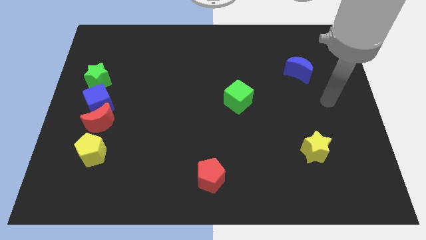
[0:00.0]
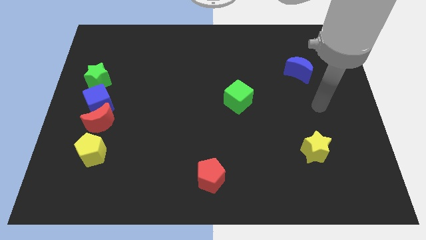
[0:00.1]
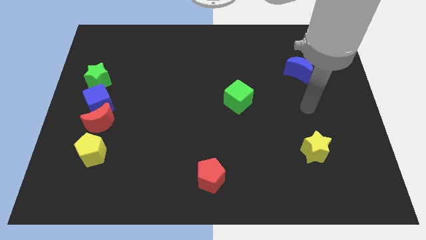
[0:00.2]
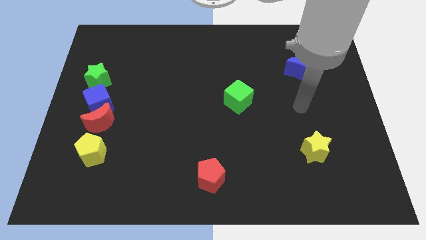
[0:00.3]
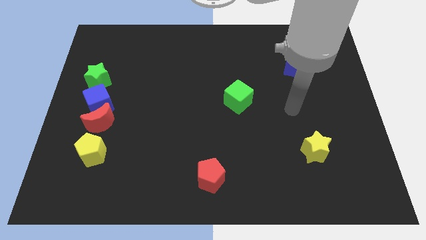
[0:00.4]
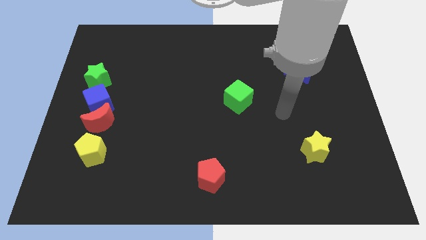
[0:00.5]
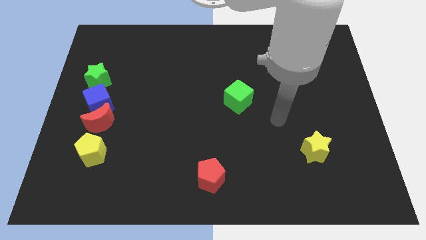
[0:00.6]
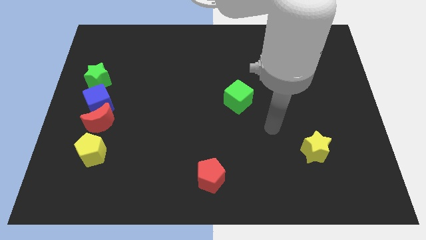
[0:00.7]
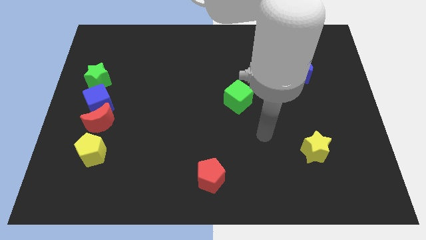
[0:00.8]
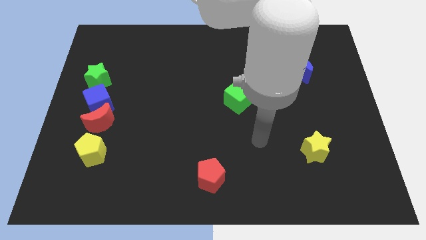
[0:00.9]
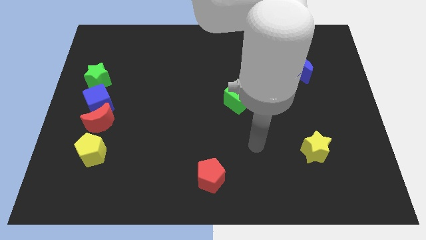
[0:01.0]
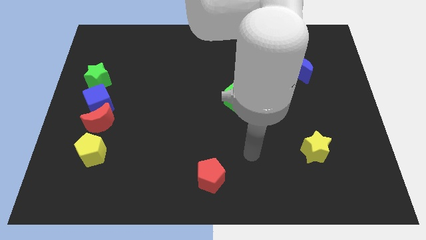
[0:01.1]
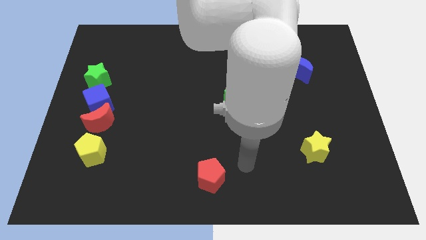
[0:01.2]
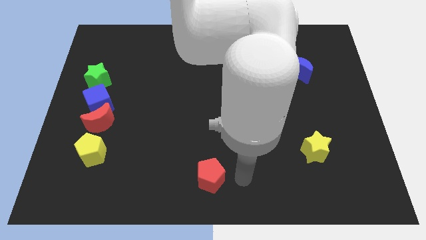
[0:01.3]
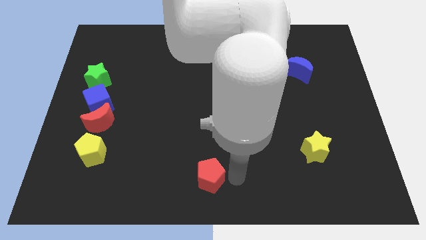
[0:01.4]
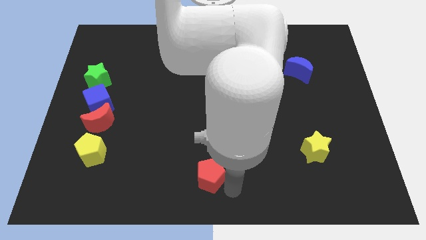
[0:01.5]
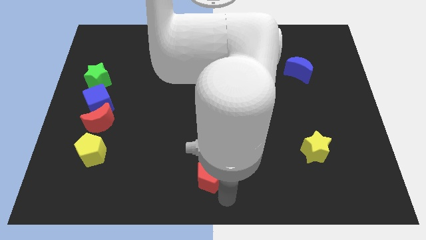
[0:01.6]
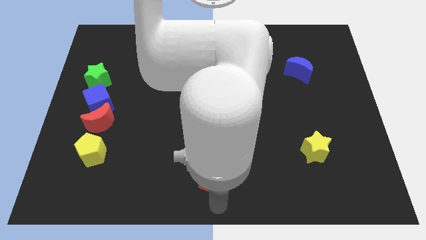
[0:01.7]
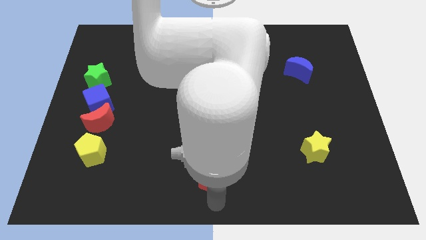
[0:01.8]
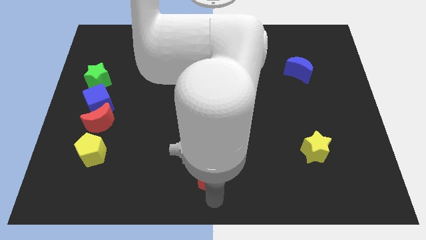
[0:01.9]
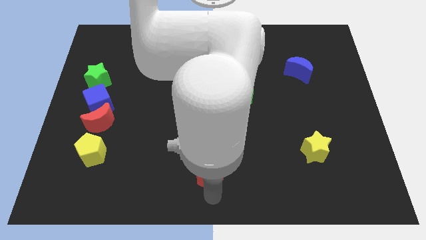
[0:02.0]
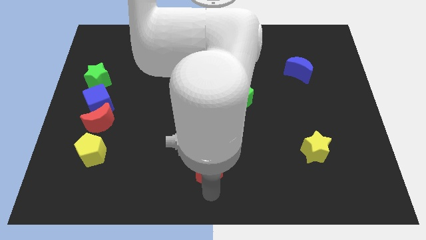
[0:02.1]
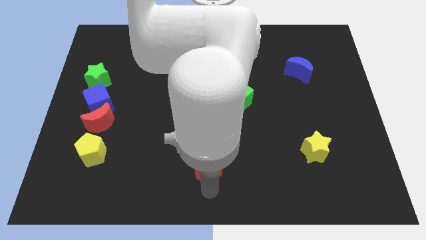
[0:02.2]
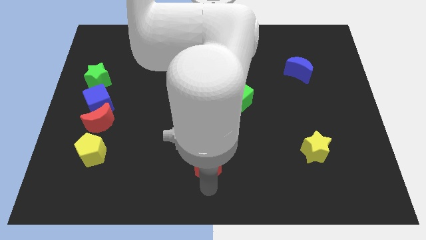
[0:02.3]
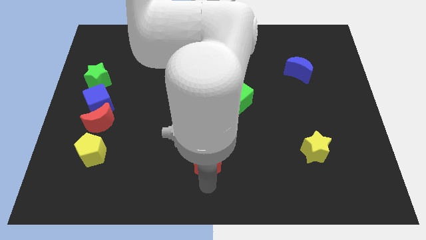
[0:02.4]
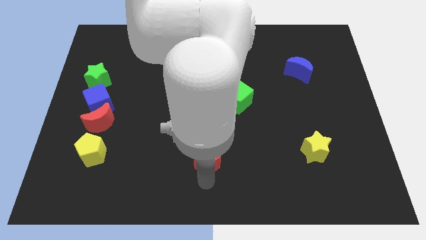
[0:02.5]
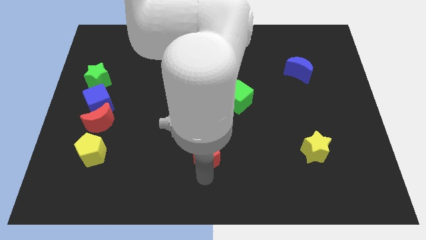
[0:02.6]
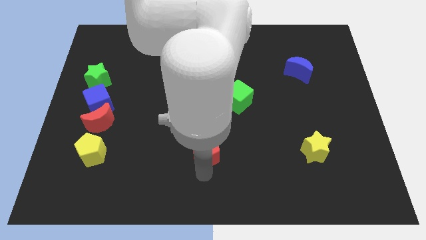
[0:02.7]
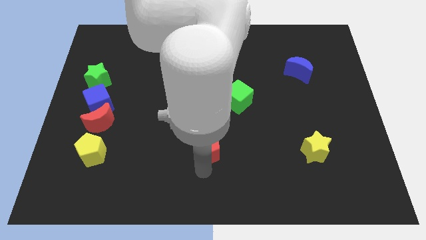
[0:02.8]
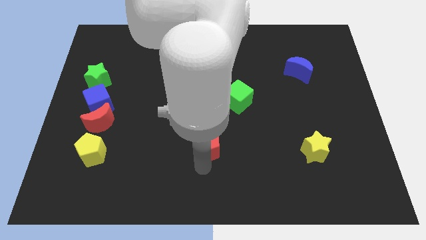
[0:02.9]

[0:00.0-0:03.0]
slide the red pentagon upwards somewhat

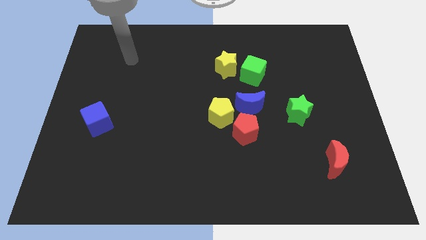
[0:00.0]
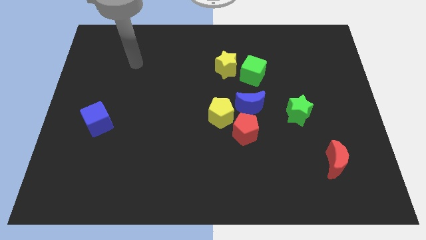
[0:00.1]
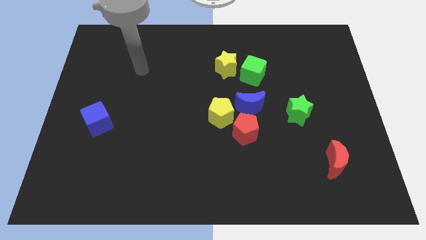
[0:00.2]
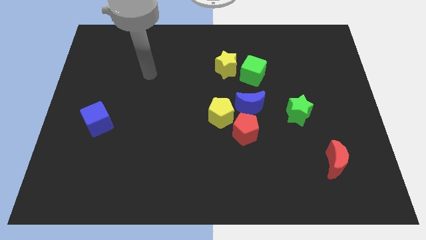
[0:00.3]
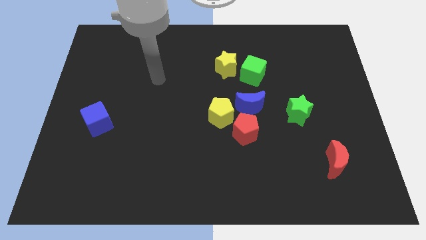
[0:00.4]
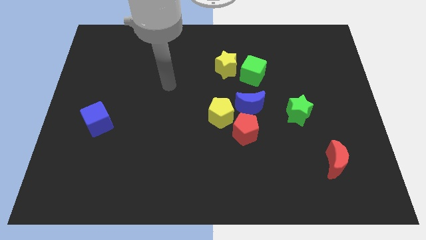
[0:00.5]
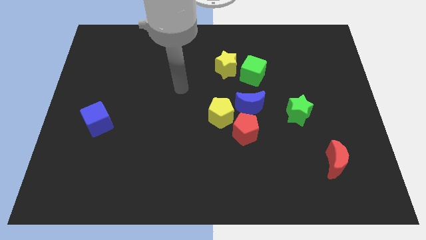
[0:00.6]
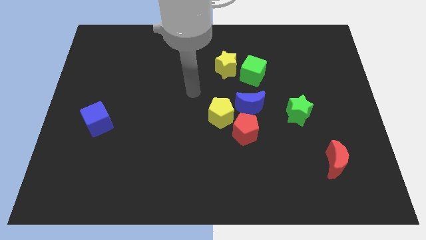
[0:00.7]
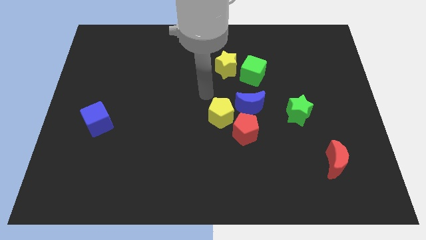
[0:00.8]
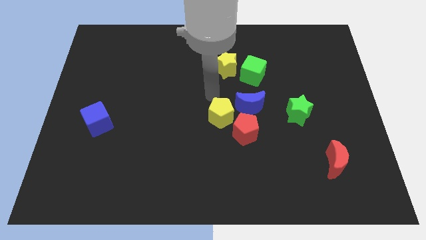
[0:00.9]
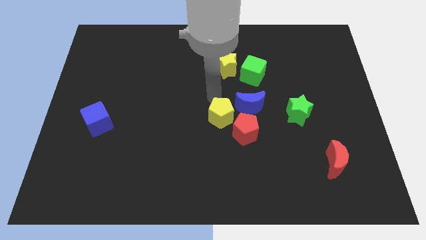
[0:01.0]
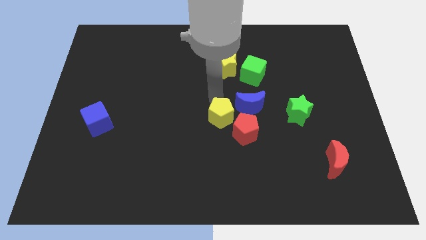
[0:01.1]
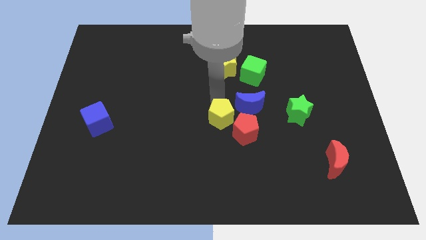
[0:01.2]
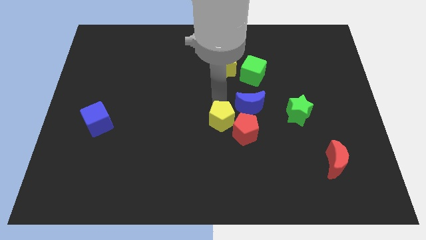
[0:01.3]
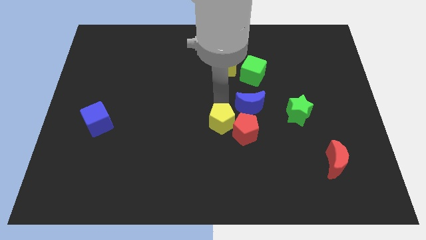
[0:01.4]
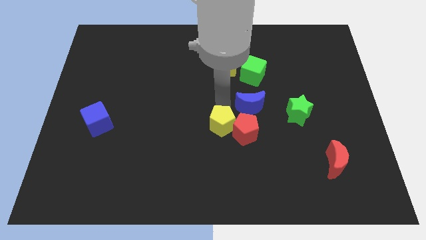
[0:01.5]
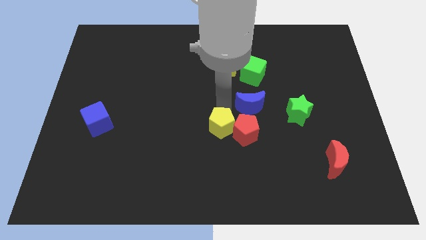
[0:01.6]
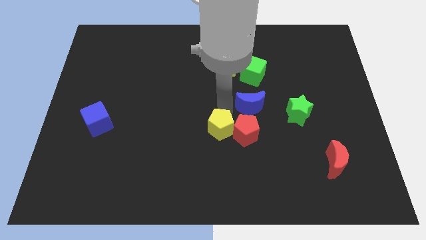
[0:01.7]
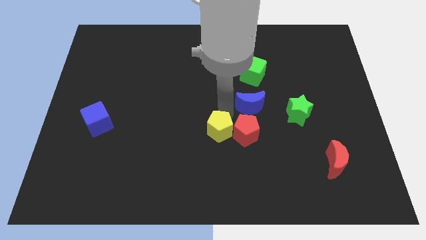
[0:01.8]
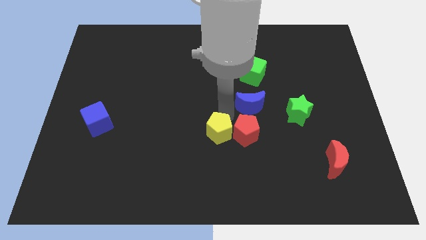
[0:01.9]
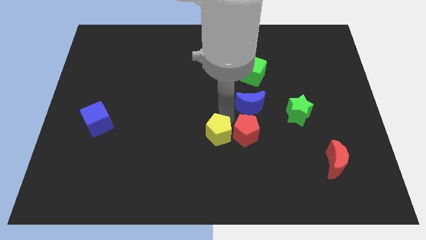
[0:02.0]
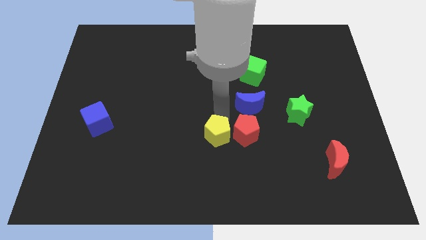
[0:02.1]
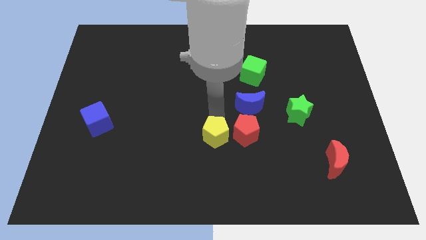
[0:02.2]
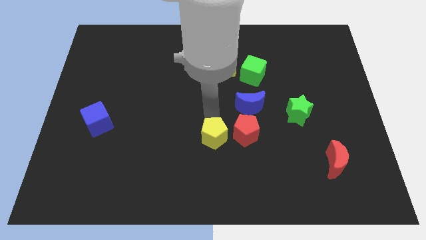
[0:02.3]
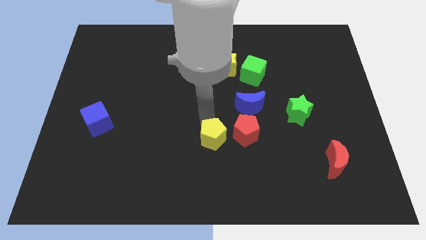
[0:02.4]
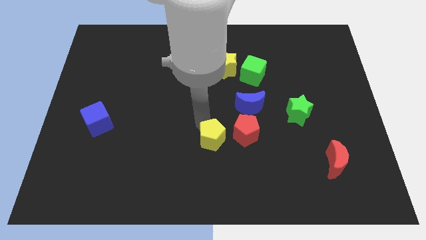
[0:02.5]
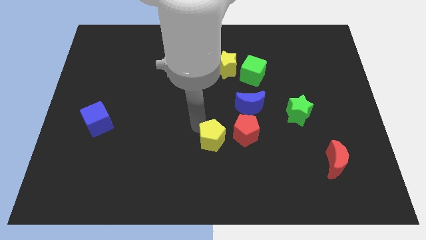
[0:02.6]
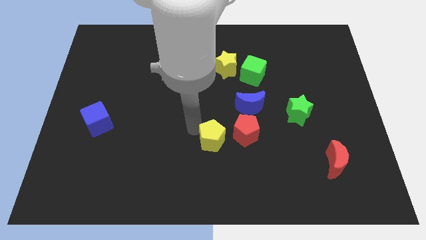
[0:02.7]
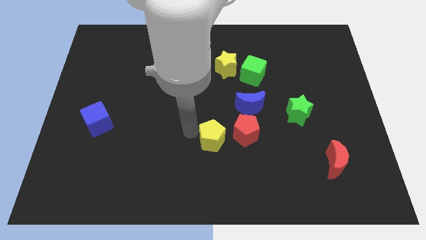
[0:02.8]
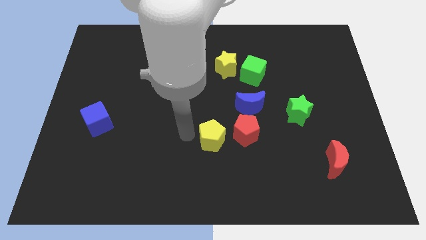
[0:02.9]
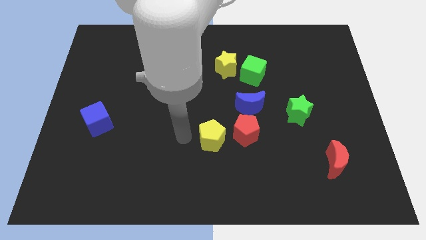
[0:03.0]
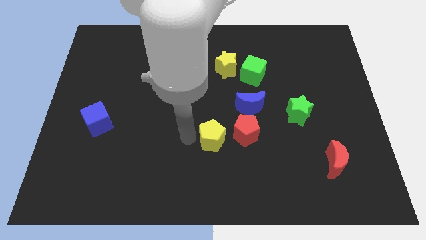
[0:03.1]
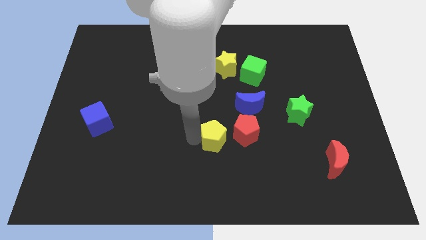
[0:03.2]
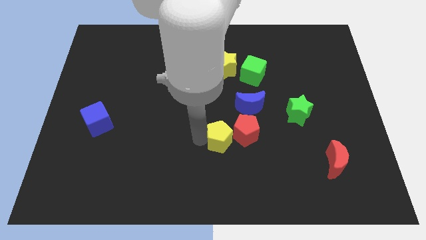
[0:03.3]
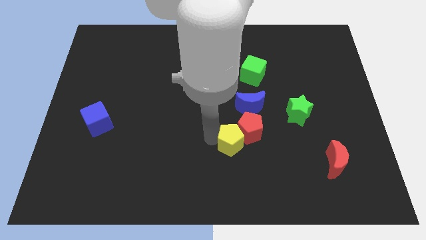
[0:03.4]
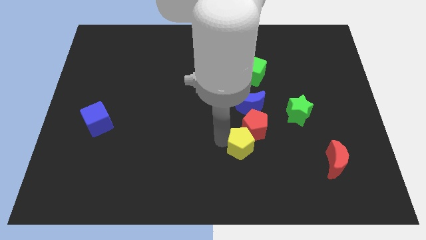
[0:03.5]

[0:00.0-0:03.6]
slightly move the yellow pentagon diagonally downwards and right

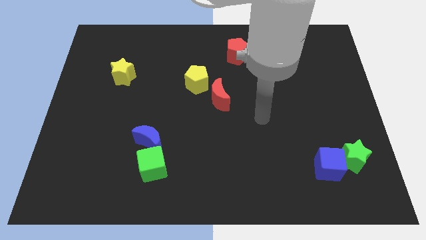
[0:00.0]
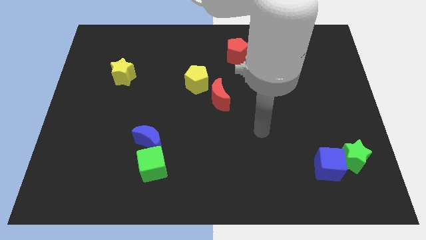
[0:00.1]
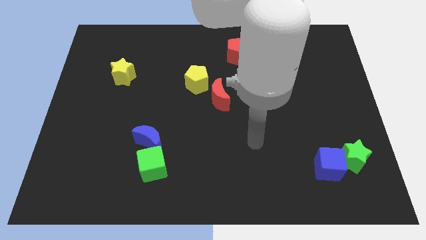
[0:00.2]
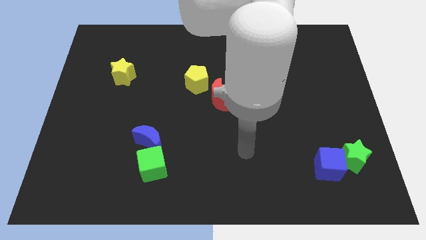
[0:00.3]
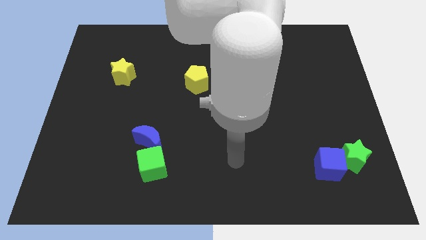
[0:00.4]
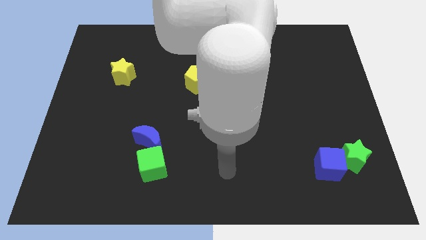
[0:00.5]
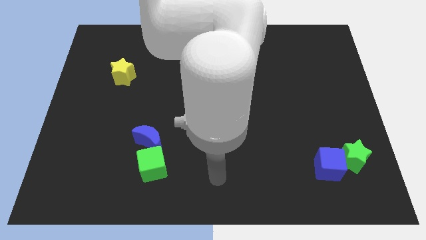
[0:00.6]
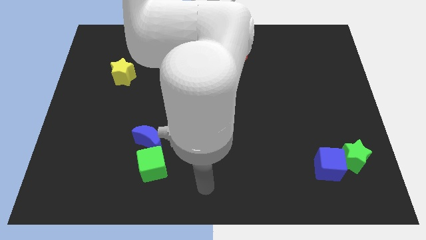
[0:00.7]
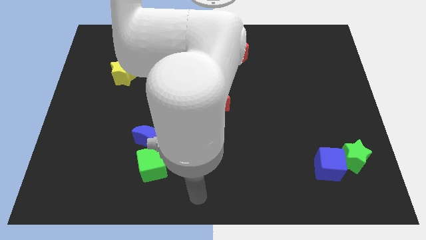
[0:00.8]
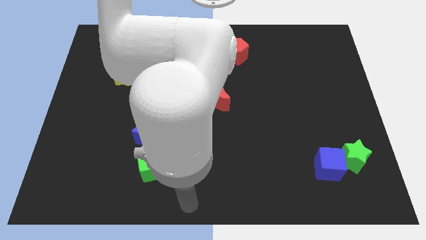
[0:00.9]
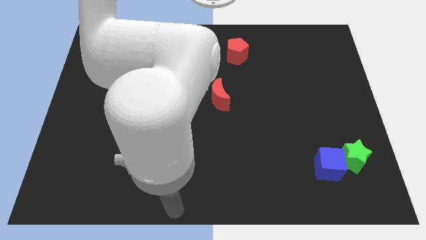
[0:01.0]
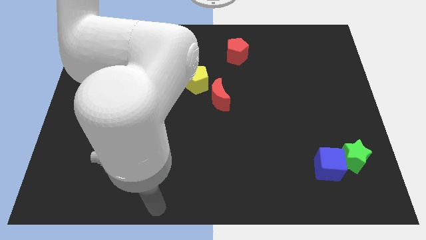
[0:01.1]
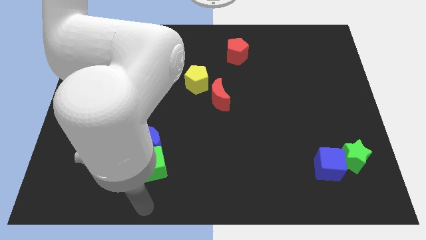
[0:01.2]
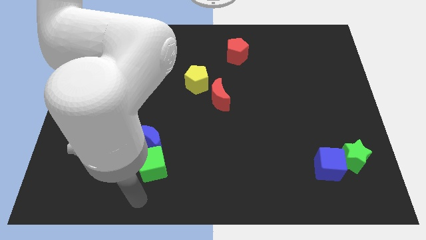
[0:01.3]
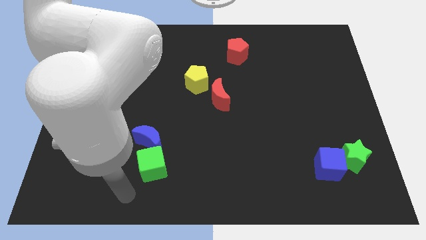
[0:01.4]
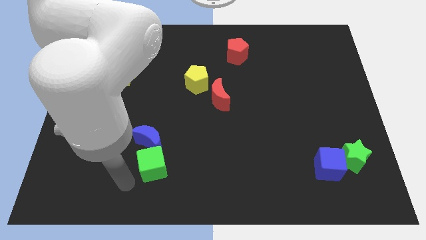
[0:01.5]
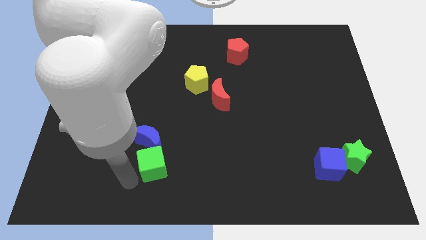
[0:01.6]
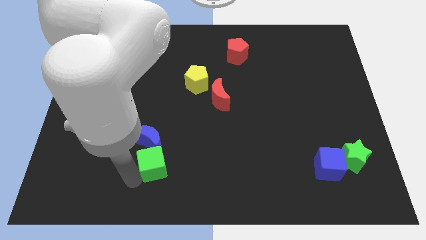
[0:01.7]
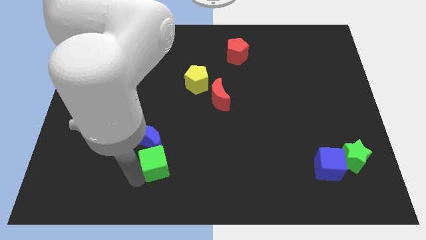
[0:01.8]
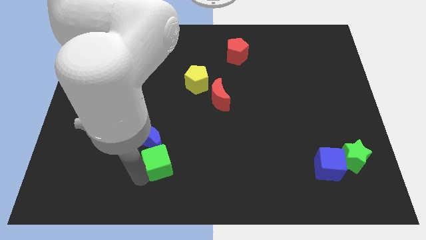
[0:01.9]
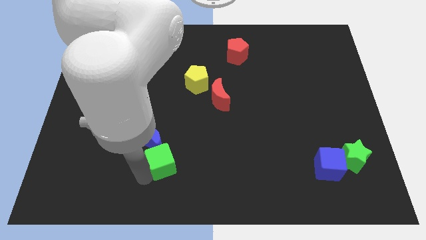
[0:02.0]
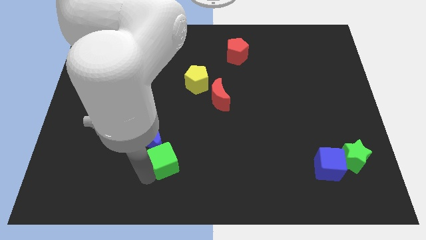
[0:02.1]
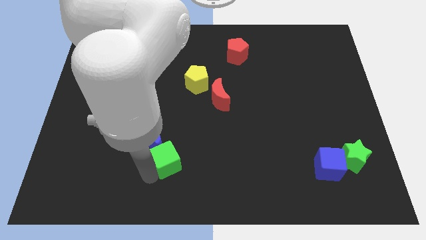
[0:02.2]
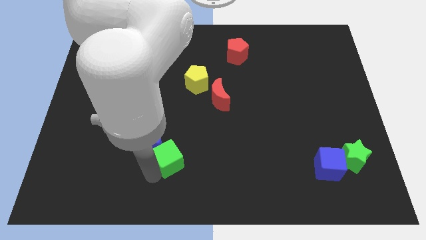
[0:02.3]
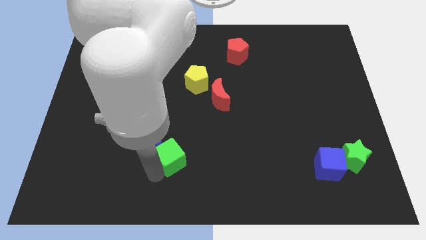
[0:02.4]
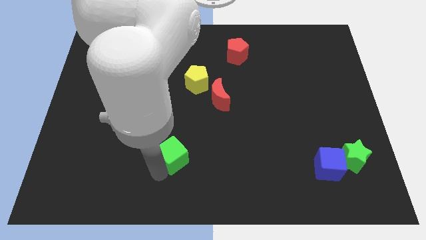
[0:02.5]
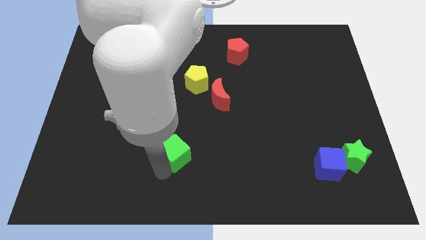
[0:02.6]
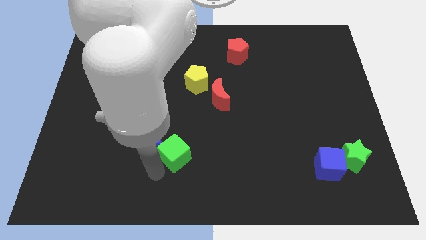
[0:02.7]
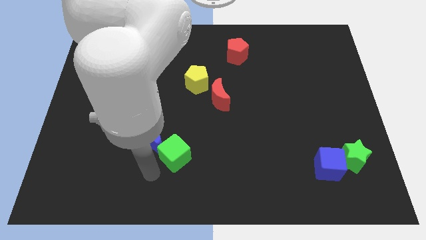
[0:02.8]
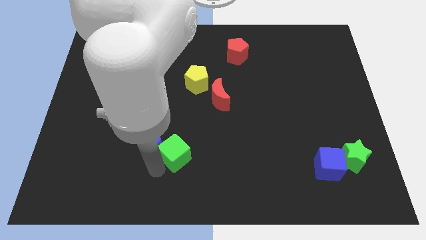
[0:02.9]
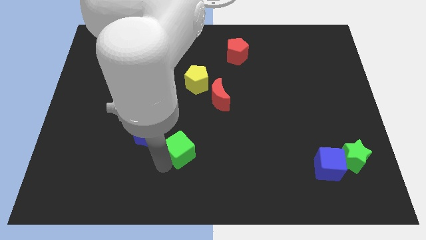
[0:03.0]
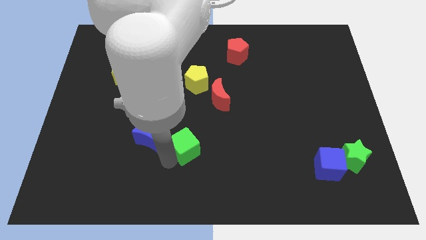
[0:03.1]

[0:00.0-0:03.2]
slightly slide the green cube upwards and then right
